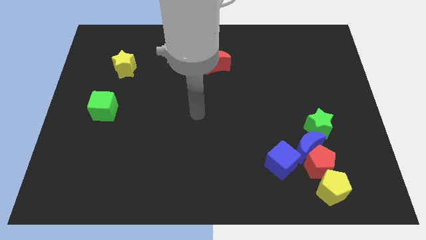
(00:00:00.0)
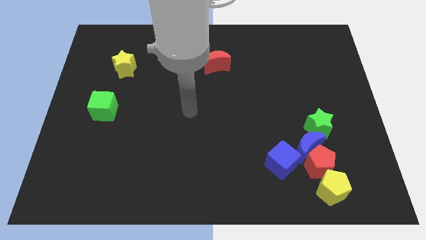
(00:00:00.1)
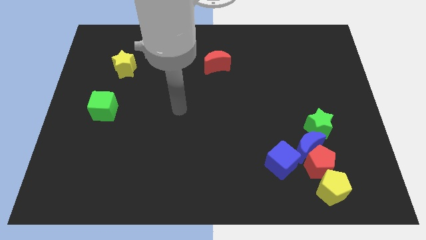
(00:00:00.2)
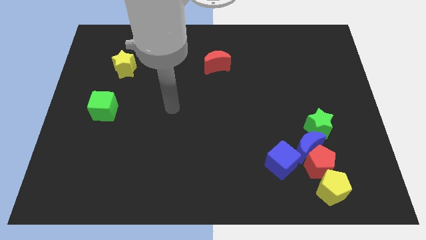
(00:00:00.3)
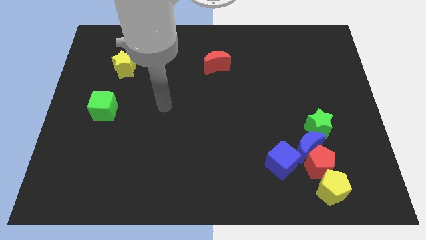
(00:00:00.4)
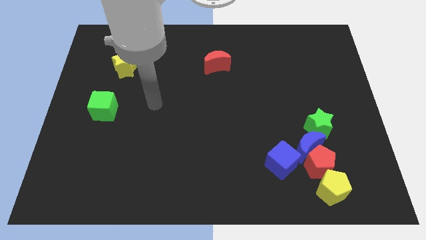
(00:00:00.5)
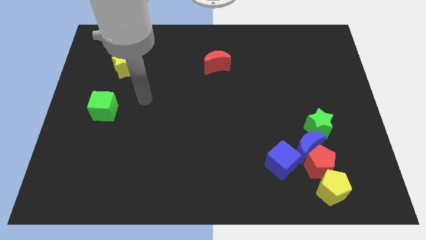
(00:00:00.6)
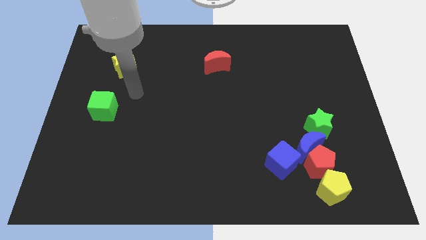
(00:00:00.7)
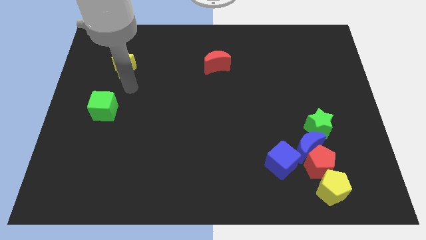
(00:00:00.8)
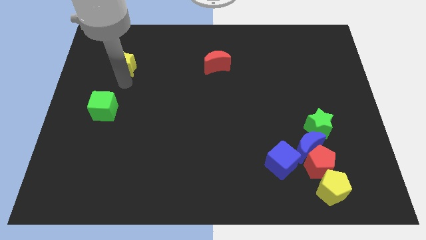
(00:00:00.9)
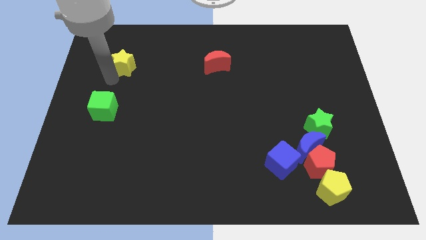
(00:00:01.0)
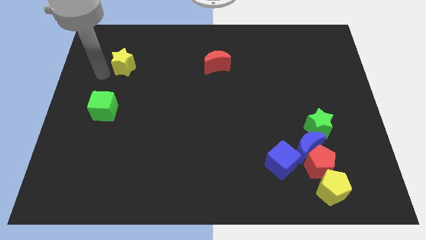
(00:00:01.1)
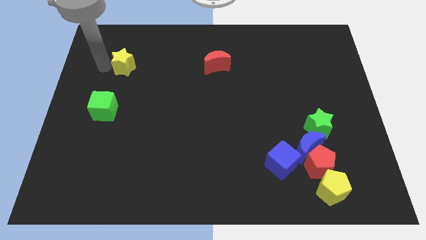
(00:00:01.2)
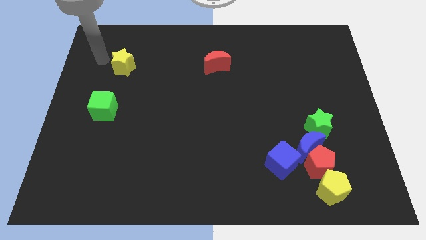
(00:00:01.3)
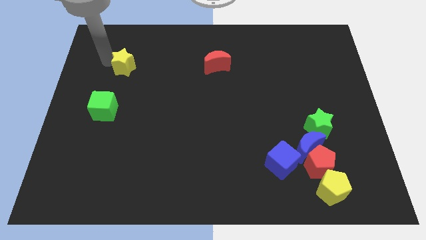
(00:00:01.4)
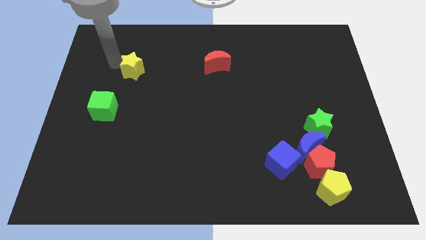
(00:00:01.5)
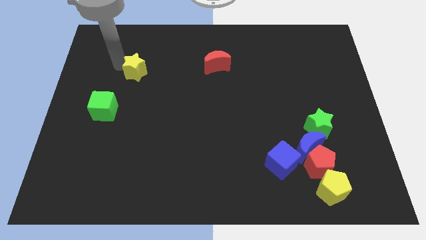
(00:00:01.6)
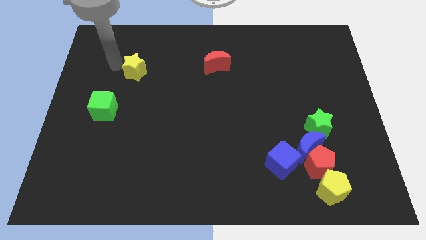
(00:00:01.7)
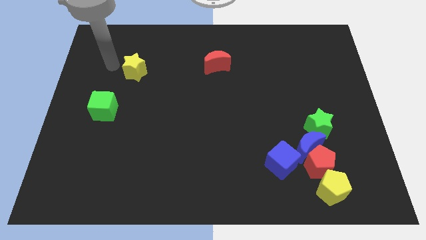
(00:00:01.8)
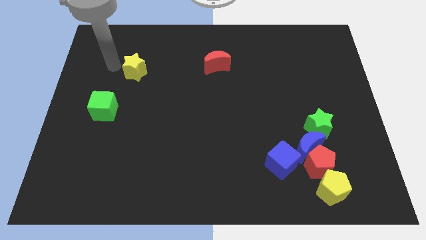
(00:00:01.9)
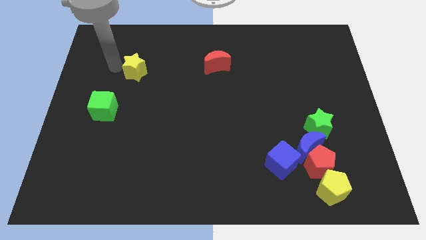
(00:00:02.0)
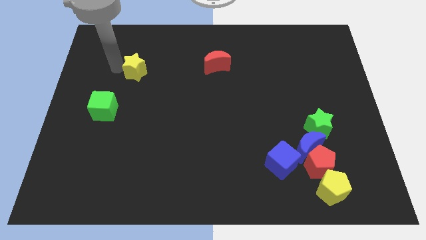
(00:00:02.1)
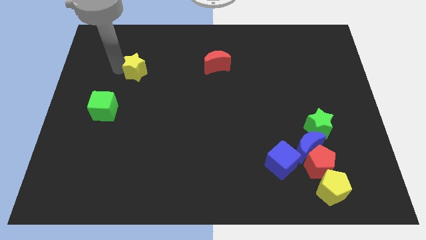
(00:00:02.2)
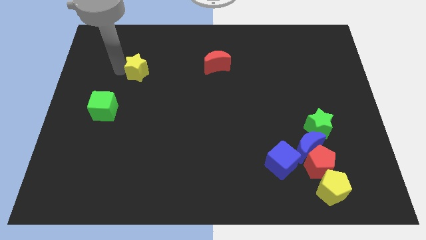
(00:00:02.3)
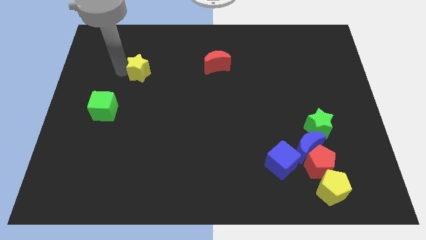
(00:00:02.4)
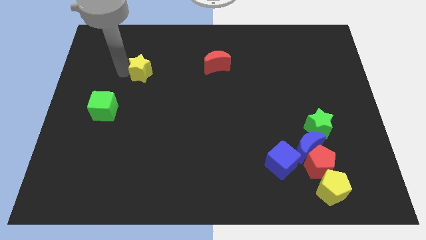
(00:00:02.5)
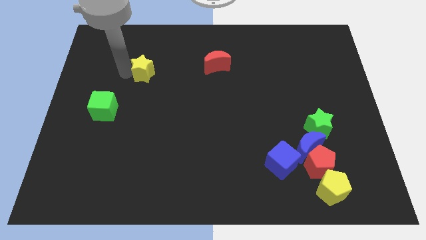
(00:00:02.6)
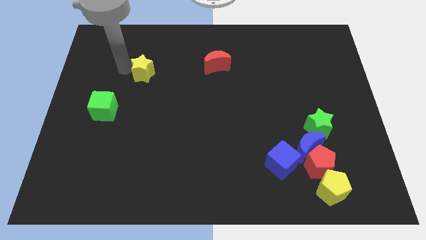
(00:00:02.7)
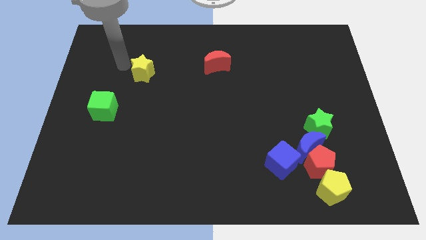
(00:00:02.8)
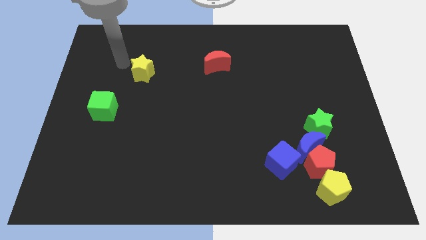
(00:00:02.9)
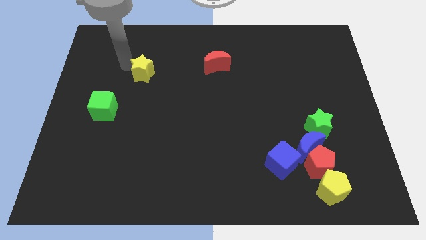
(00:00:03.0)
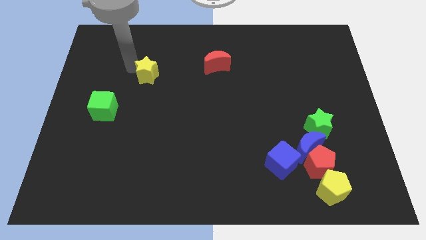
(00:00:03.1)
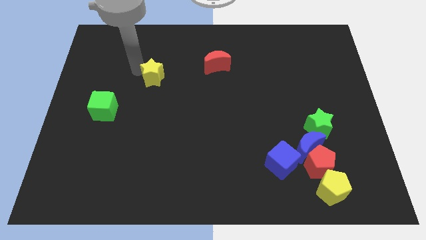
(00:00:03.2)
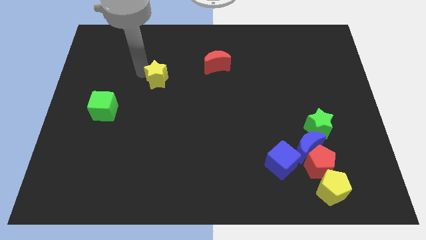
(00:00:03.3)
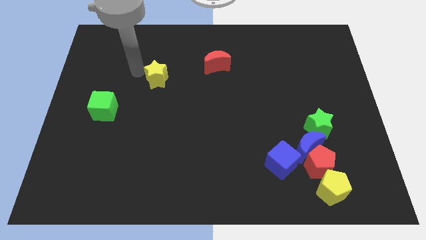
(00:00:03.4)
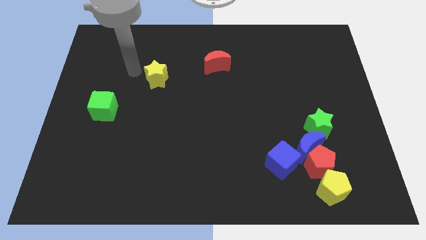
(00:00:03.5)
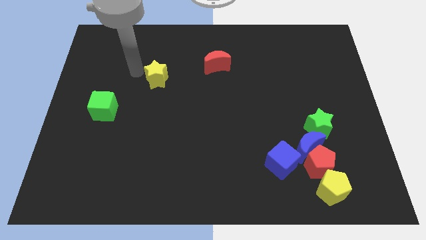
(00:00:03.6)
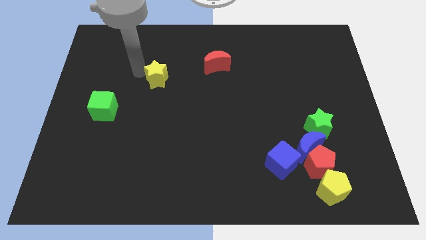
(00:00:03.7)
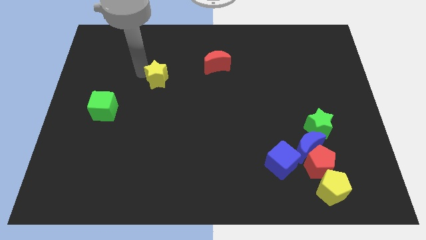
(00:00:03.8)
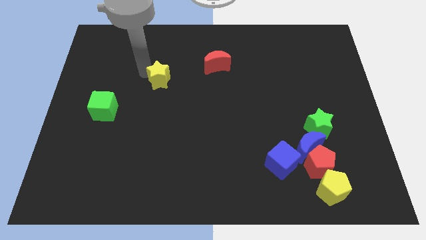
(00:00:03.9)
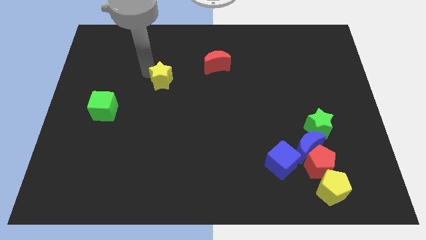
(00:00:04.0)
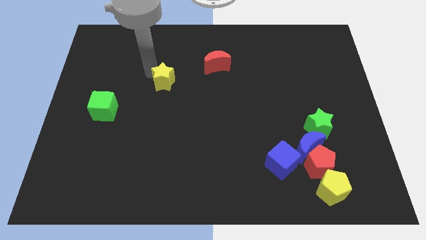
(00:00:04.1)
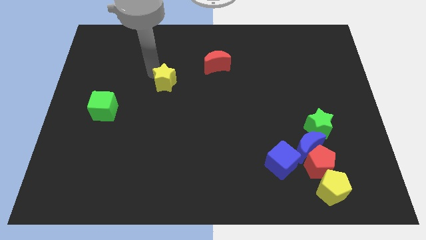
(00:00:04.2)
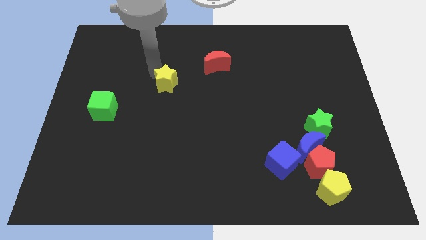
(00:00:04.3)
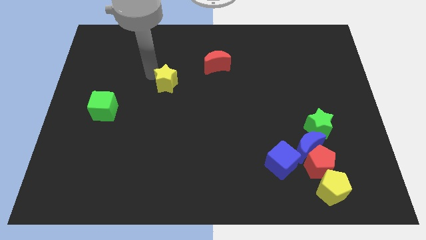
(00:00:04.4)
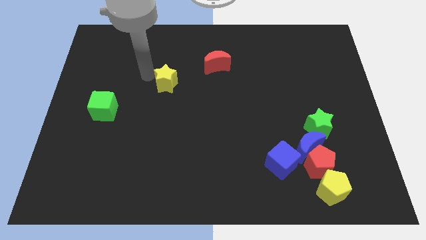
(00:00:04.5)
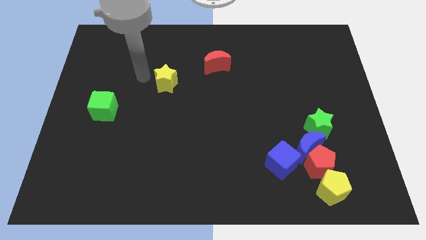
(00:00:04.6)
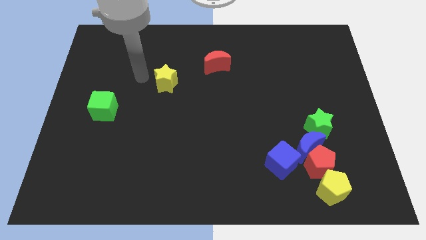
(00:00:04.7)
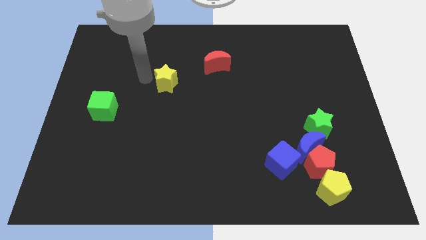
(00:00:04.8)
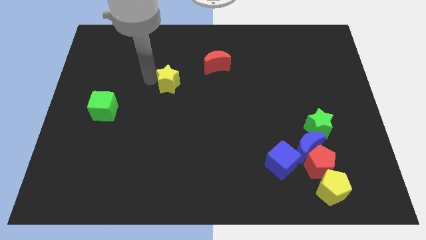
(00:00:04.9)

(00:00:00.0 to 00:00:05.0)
slide the yellow star to the center

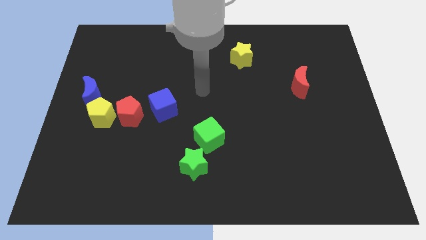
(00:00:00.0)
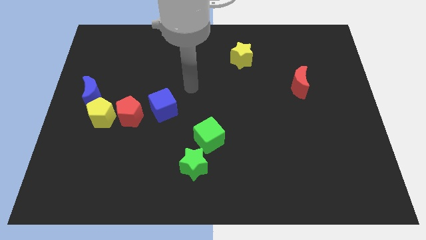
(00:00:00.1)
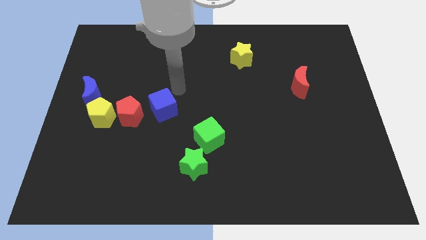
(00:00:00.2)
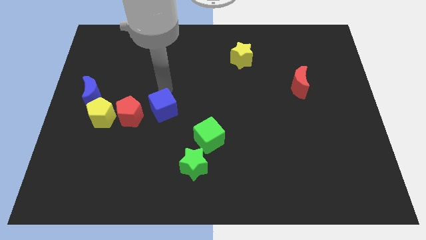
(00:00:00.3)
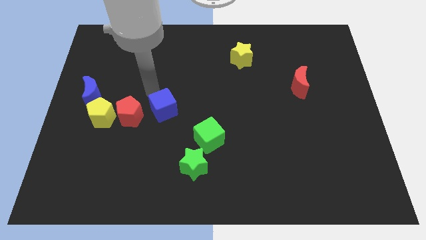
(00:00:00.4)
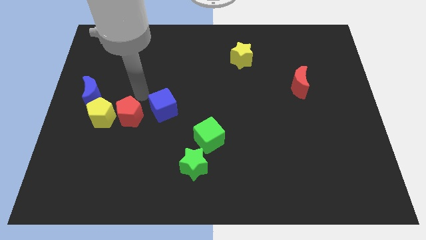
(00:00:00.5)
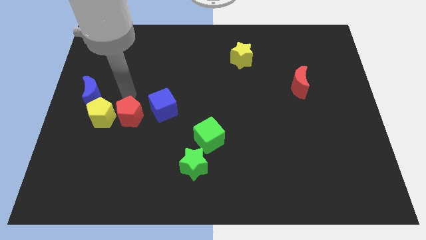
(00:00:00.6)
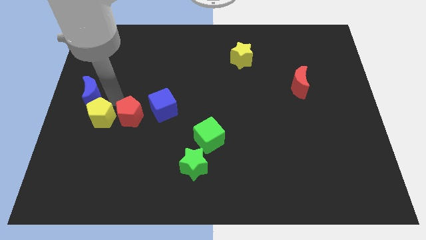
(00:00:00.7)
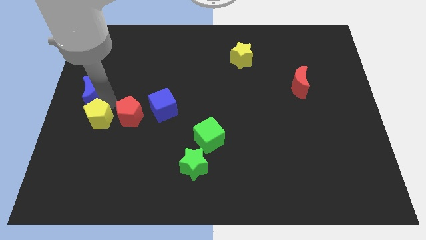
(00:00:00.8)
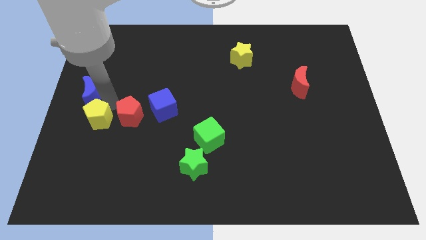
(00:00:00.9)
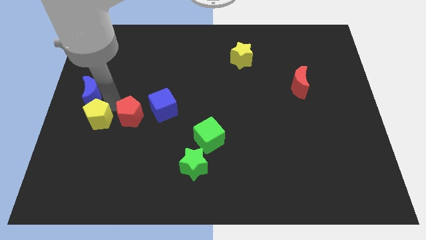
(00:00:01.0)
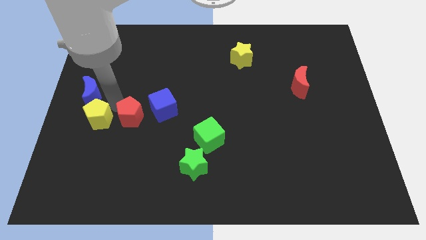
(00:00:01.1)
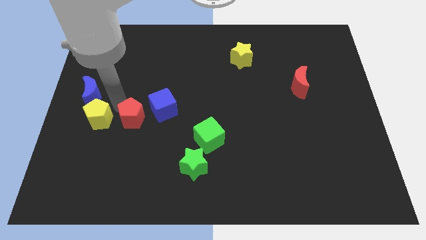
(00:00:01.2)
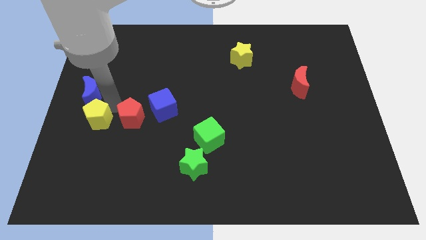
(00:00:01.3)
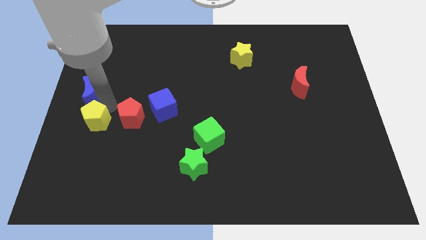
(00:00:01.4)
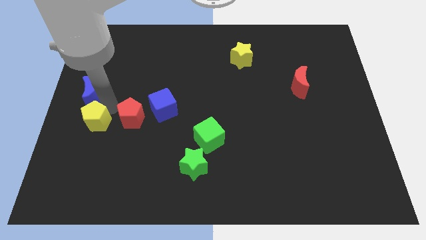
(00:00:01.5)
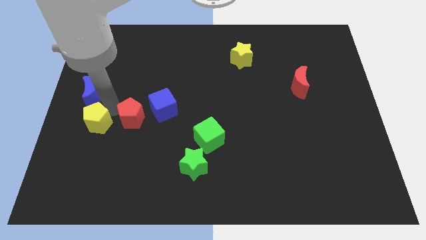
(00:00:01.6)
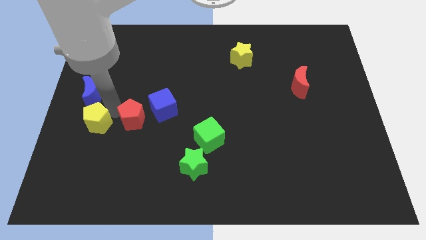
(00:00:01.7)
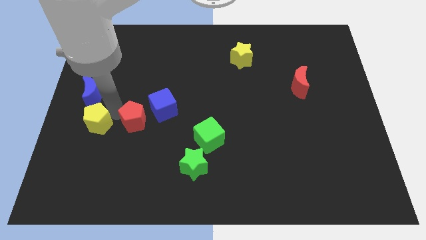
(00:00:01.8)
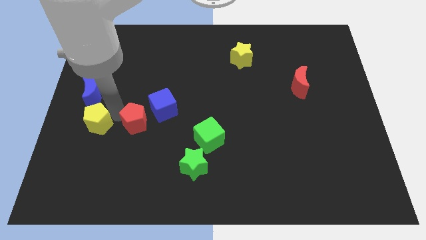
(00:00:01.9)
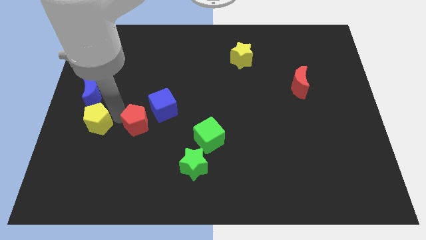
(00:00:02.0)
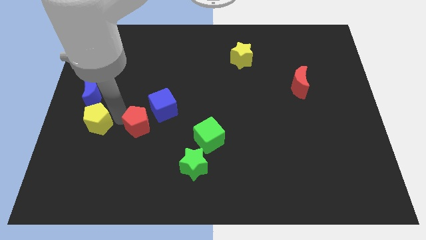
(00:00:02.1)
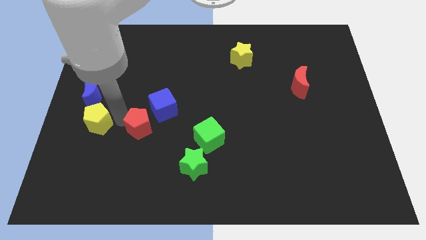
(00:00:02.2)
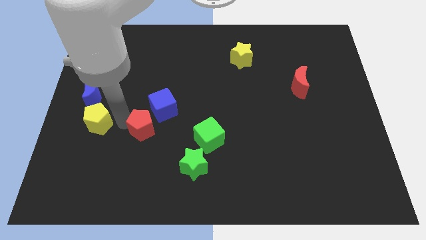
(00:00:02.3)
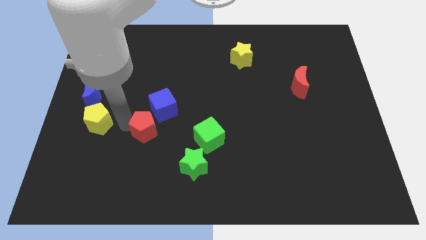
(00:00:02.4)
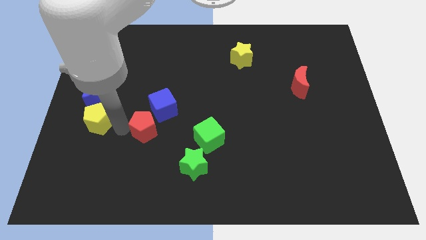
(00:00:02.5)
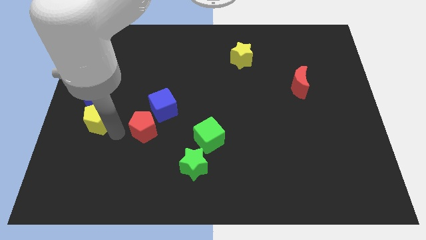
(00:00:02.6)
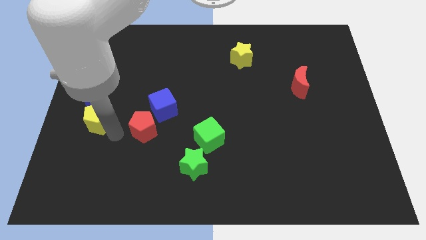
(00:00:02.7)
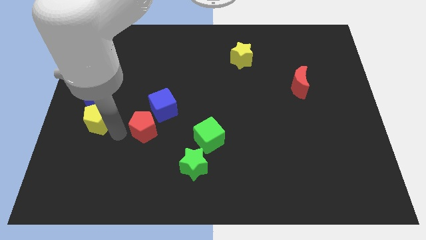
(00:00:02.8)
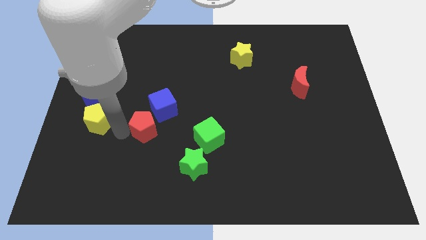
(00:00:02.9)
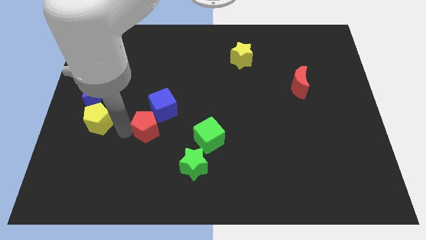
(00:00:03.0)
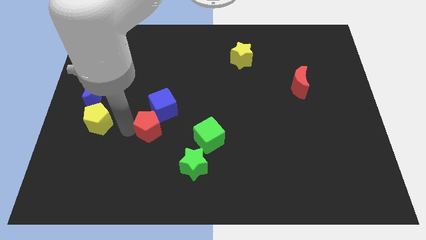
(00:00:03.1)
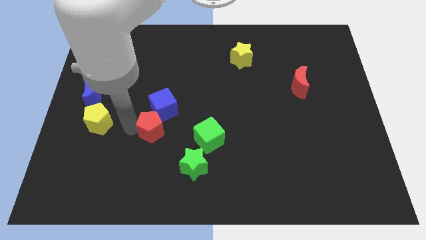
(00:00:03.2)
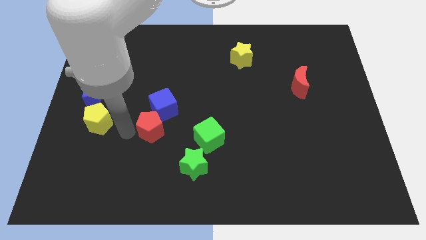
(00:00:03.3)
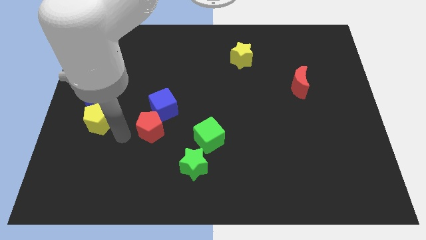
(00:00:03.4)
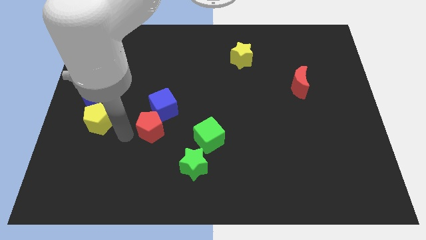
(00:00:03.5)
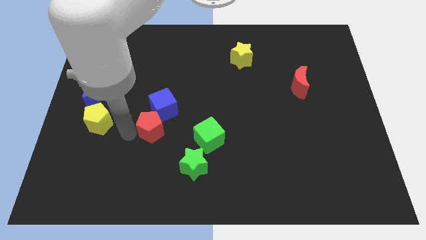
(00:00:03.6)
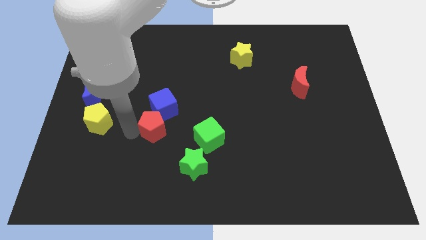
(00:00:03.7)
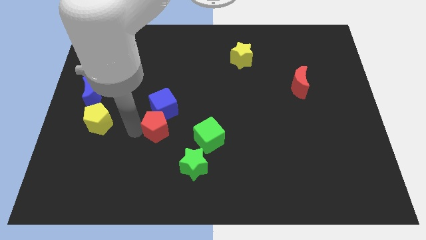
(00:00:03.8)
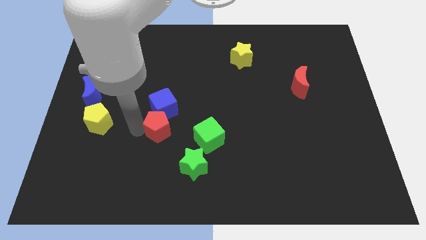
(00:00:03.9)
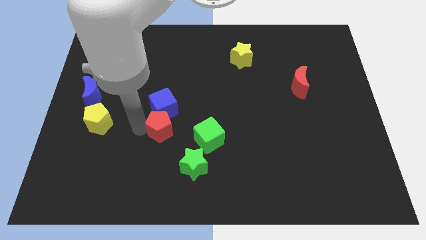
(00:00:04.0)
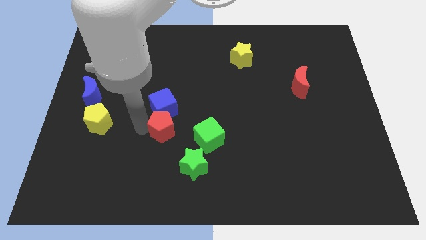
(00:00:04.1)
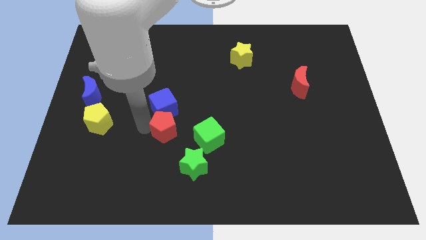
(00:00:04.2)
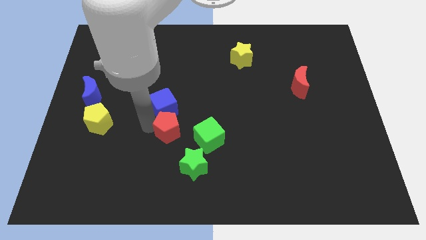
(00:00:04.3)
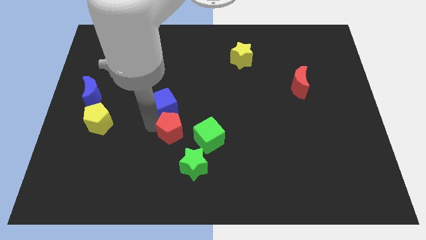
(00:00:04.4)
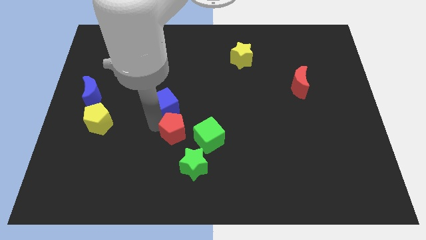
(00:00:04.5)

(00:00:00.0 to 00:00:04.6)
push the red pentagon to the middle
